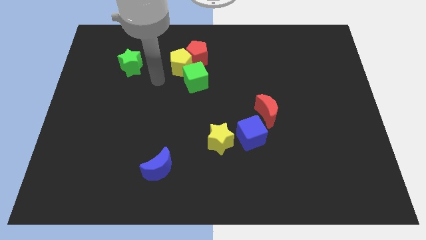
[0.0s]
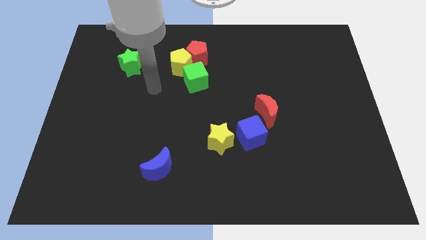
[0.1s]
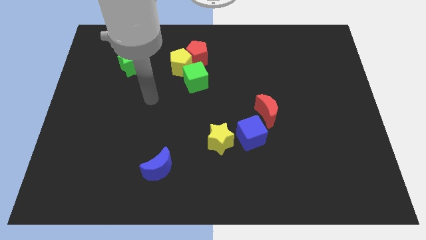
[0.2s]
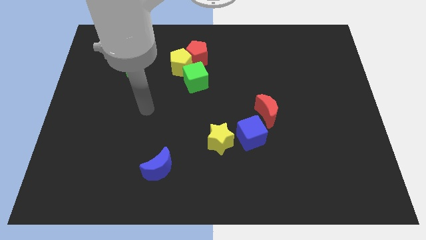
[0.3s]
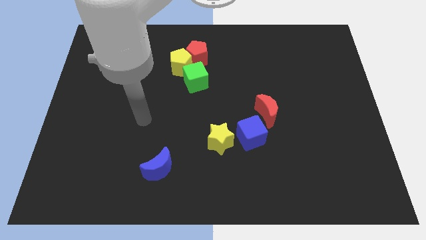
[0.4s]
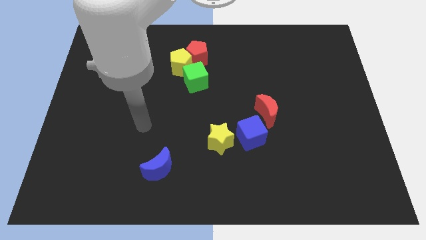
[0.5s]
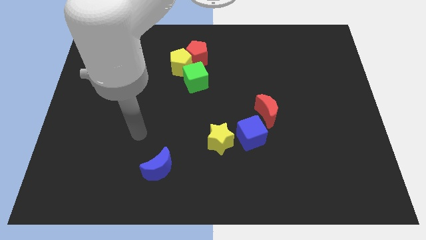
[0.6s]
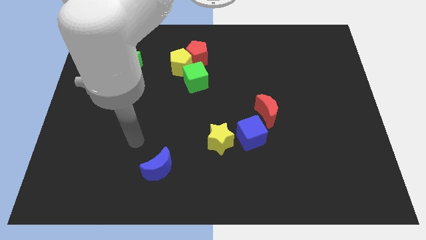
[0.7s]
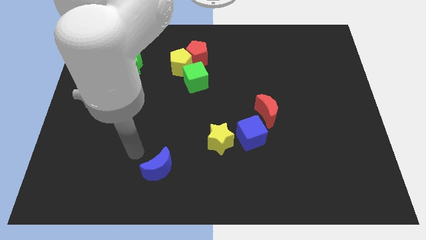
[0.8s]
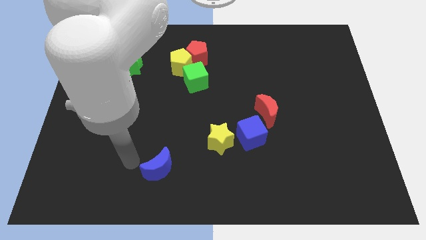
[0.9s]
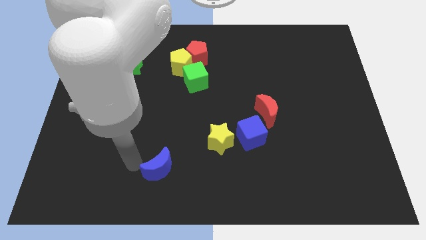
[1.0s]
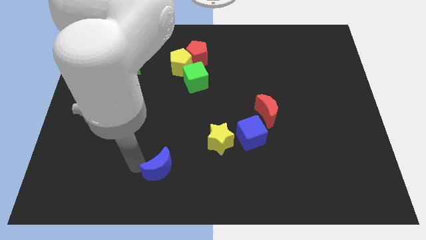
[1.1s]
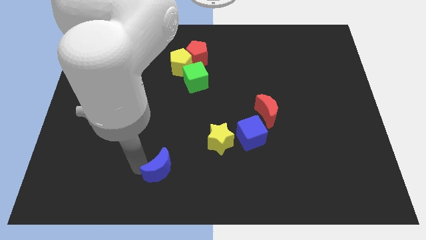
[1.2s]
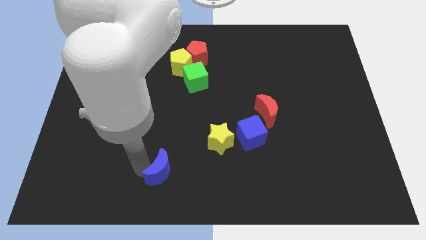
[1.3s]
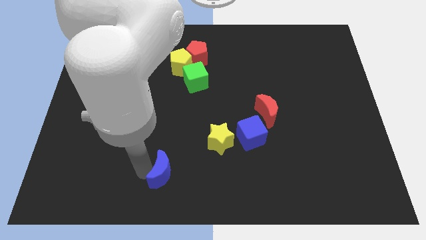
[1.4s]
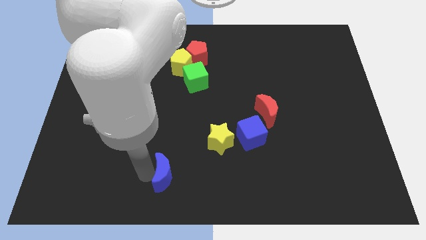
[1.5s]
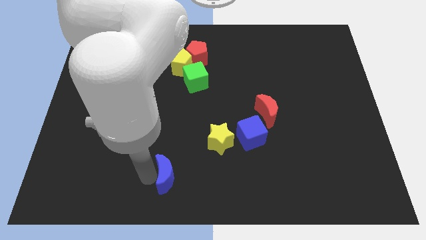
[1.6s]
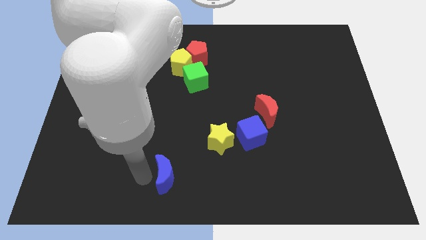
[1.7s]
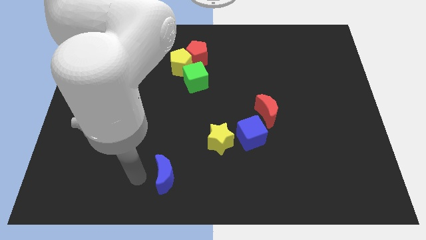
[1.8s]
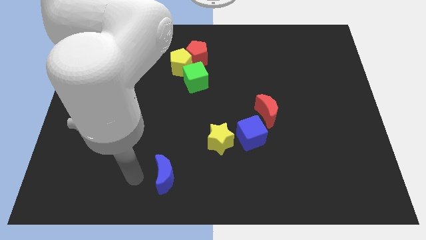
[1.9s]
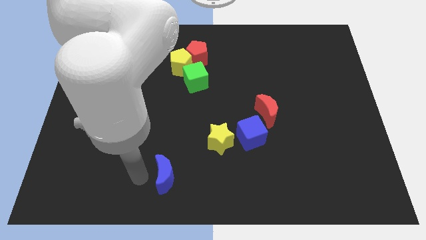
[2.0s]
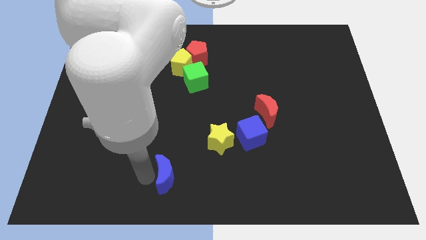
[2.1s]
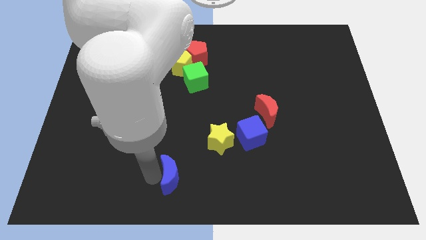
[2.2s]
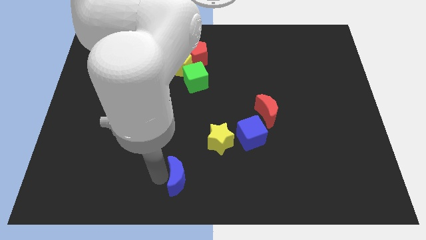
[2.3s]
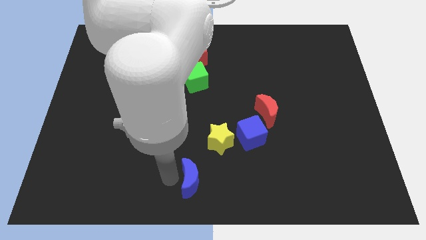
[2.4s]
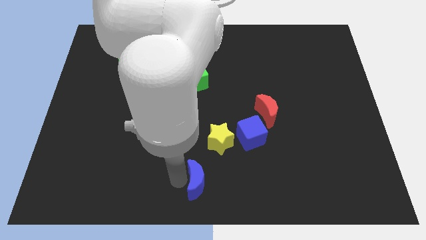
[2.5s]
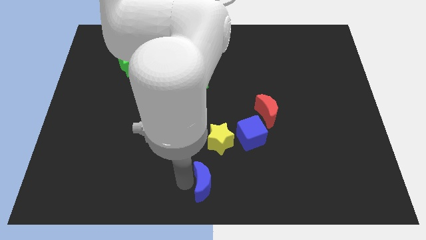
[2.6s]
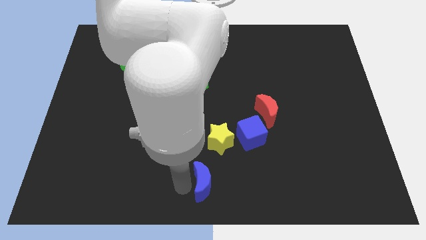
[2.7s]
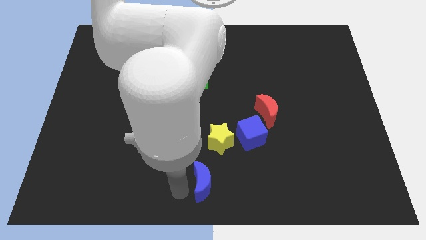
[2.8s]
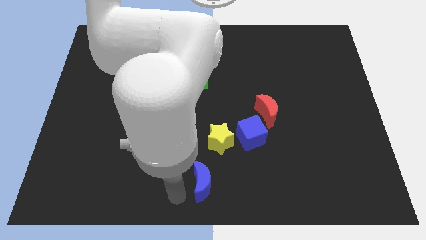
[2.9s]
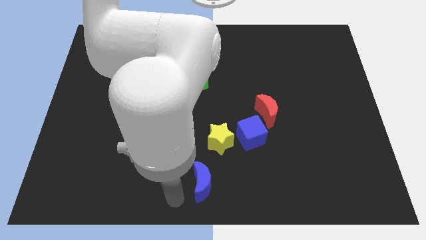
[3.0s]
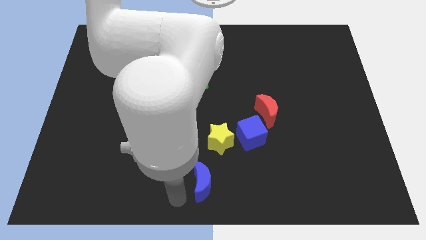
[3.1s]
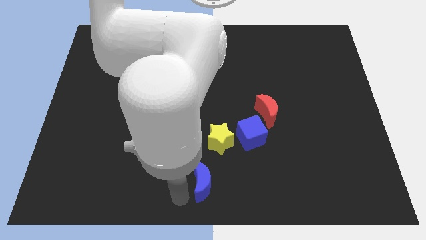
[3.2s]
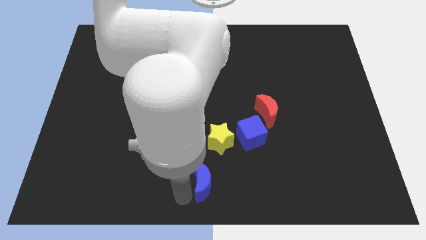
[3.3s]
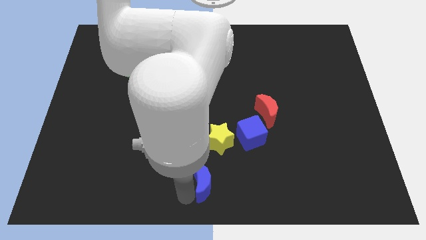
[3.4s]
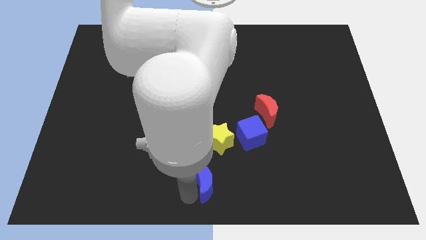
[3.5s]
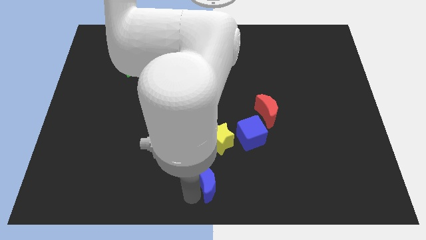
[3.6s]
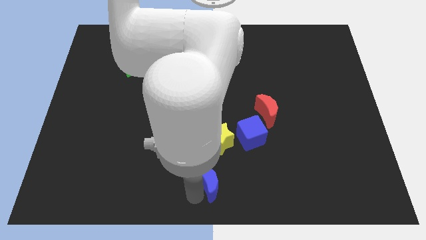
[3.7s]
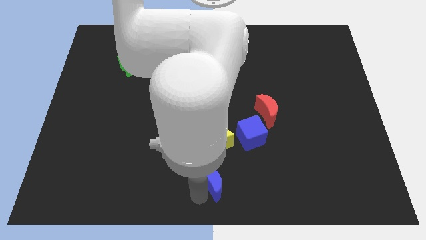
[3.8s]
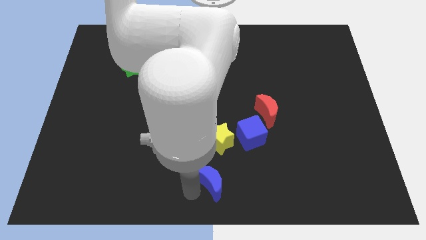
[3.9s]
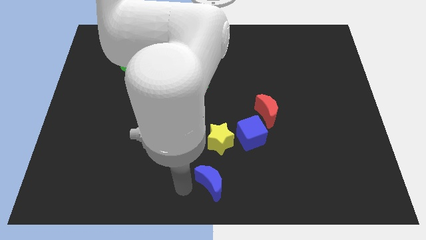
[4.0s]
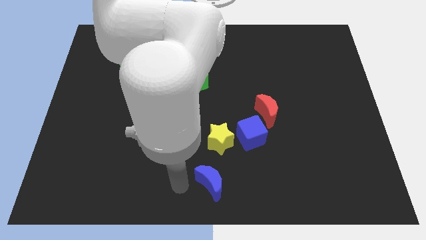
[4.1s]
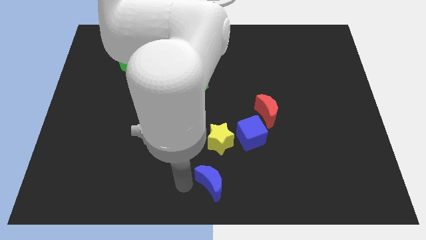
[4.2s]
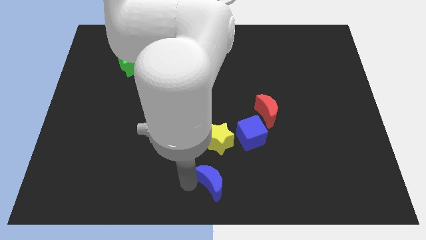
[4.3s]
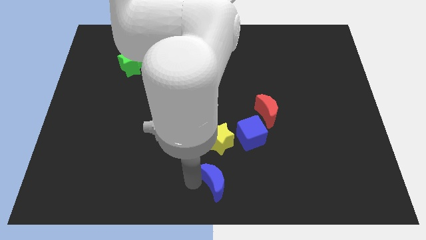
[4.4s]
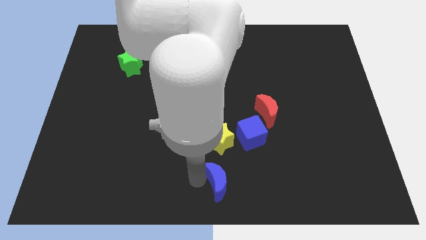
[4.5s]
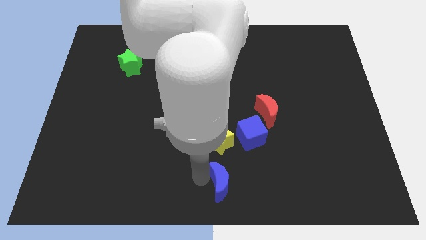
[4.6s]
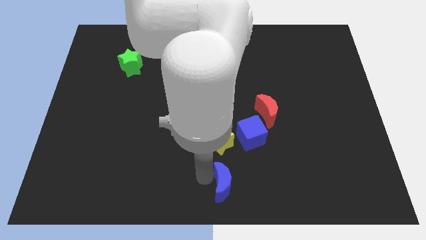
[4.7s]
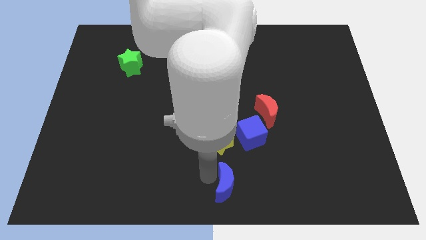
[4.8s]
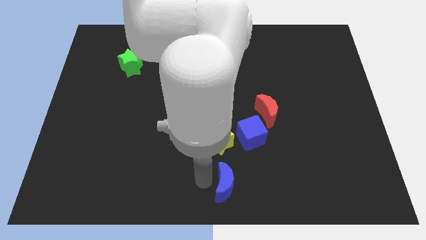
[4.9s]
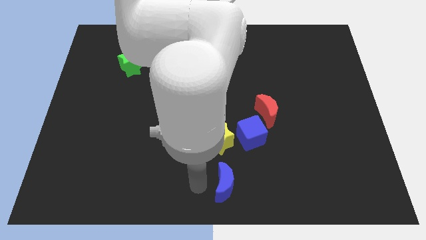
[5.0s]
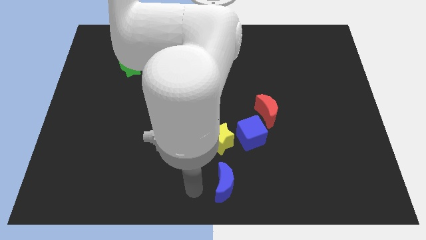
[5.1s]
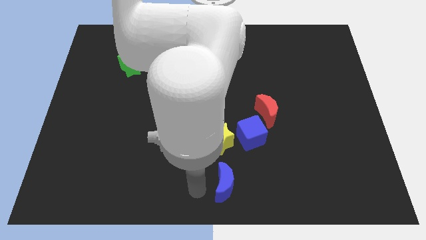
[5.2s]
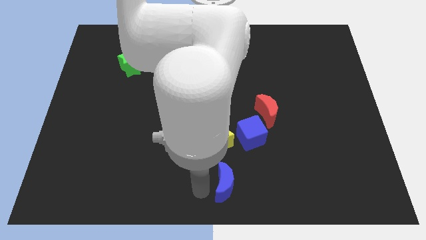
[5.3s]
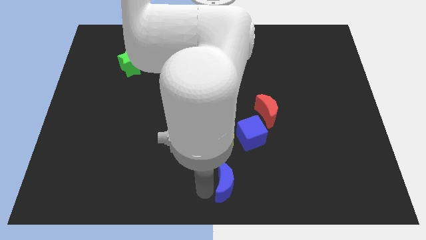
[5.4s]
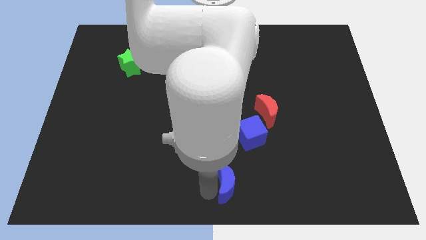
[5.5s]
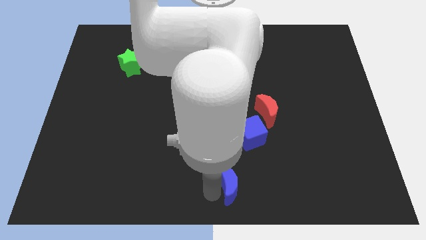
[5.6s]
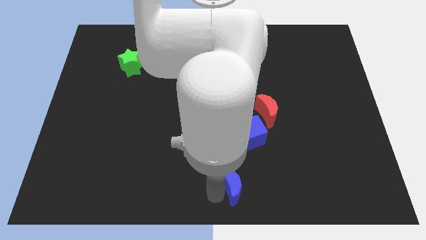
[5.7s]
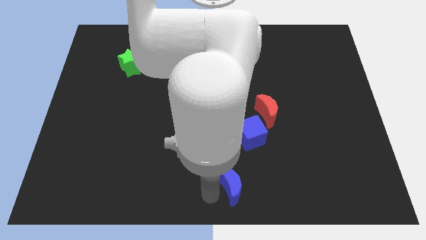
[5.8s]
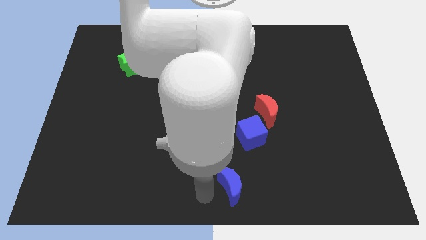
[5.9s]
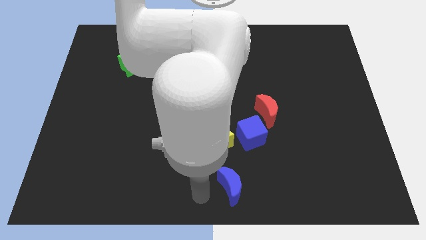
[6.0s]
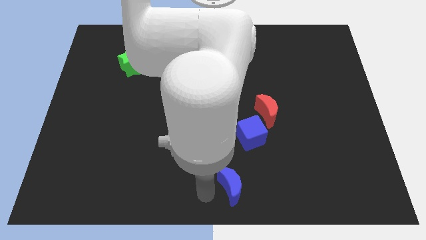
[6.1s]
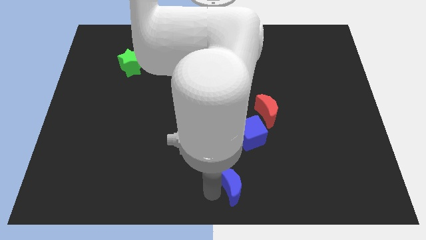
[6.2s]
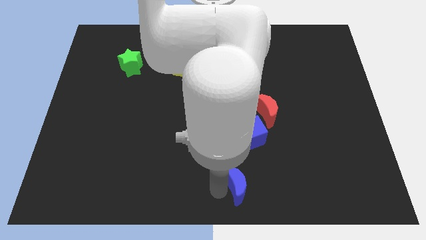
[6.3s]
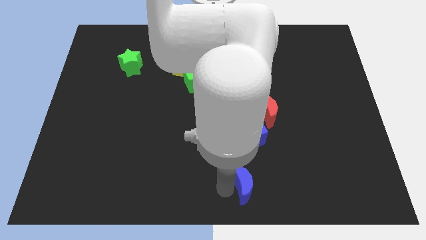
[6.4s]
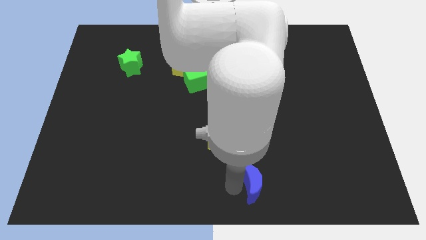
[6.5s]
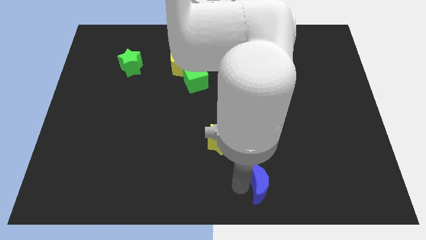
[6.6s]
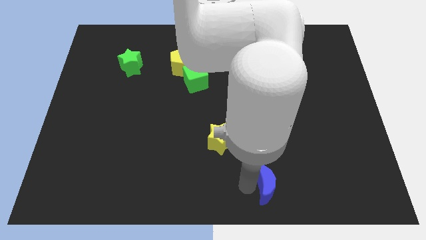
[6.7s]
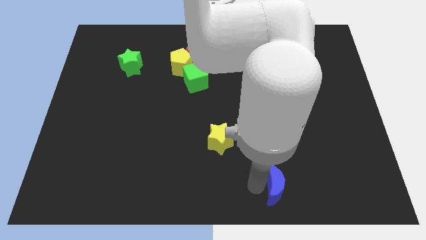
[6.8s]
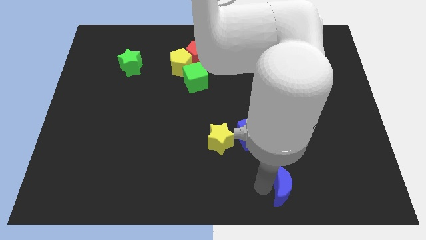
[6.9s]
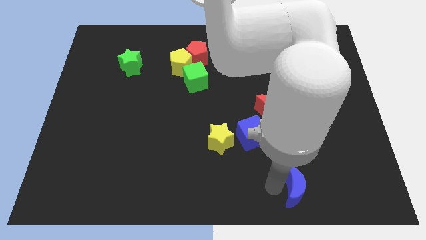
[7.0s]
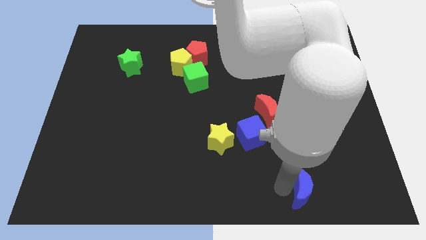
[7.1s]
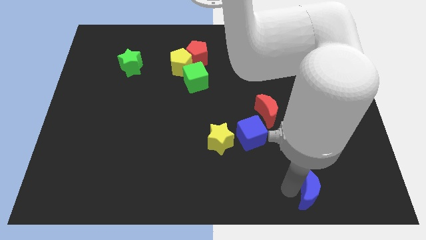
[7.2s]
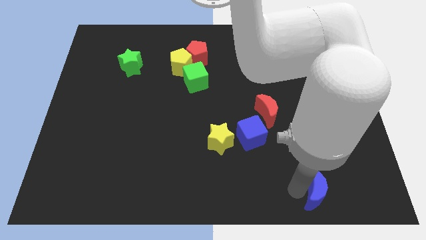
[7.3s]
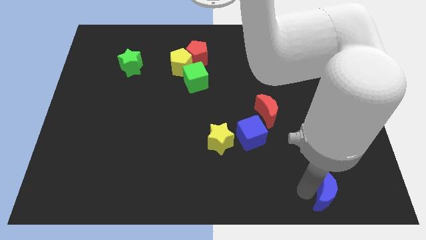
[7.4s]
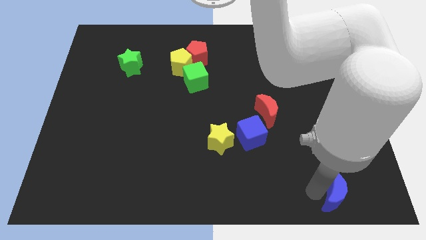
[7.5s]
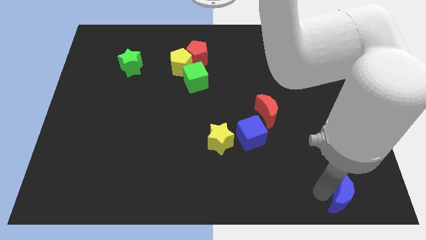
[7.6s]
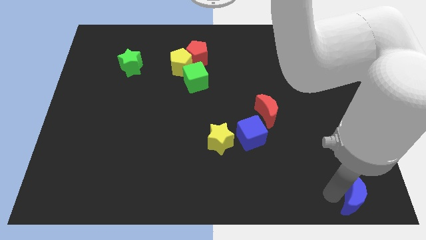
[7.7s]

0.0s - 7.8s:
put the blue moon to the lower right corner
